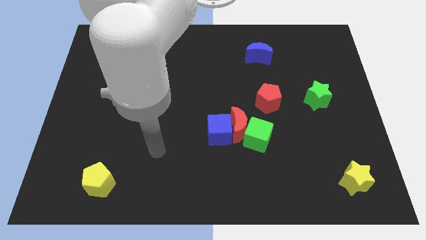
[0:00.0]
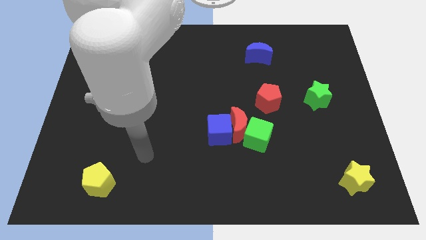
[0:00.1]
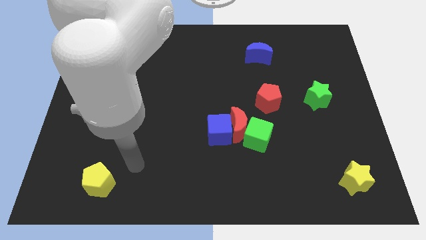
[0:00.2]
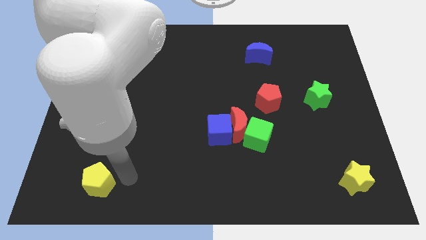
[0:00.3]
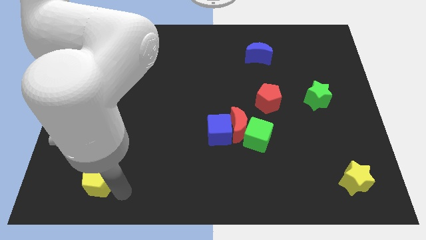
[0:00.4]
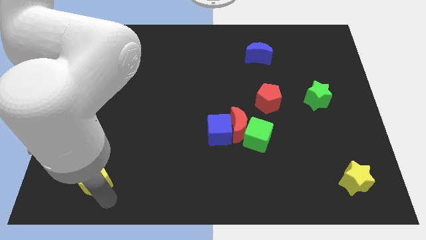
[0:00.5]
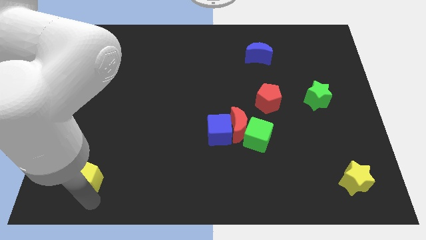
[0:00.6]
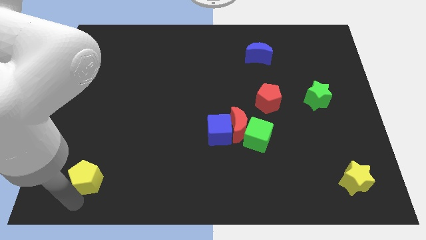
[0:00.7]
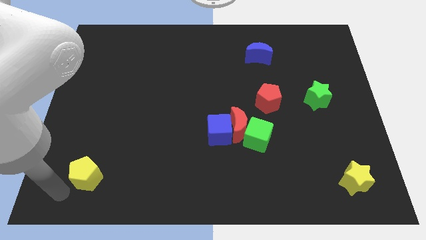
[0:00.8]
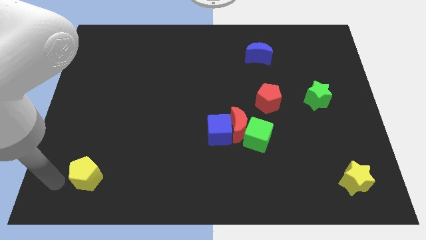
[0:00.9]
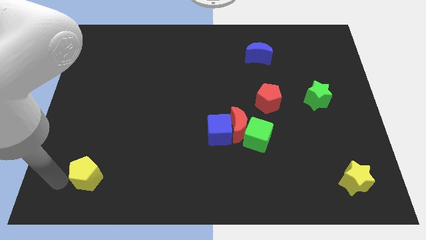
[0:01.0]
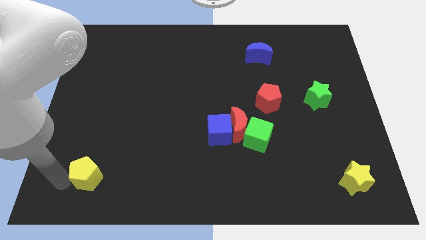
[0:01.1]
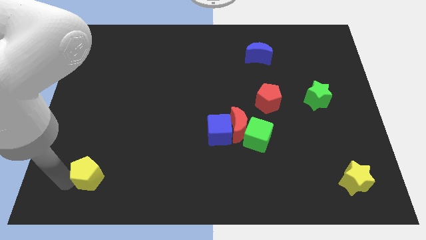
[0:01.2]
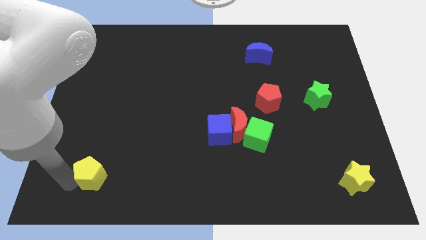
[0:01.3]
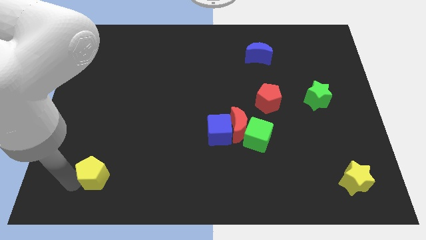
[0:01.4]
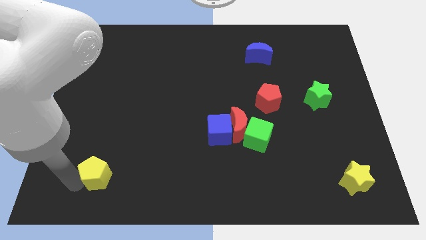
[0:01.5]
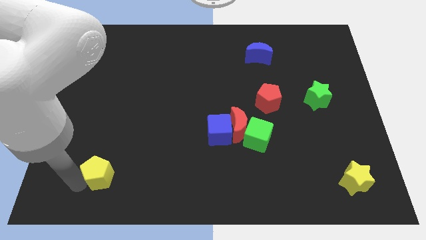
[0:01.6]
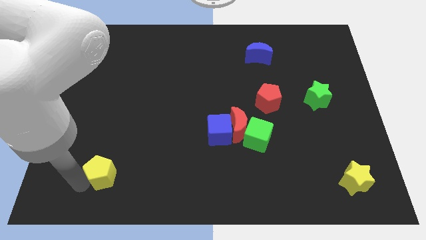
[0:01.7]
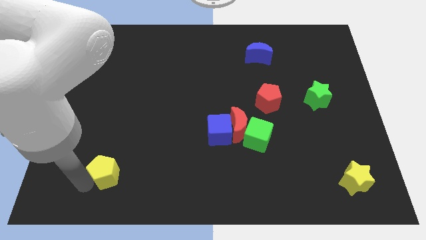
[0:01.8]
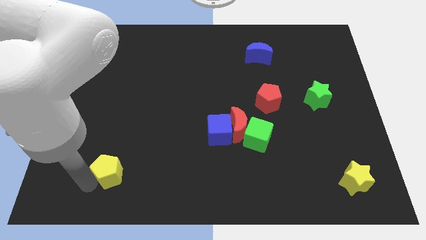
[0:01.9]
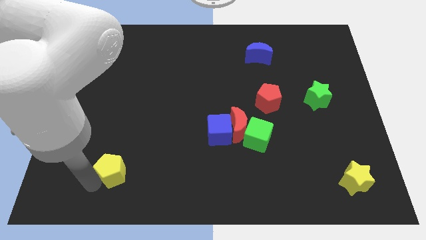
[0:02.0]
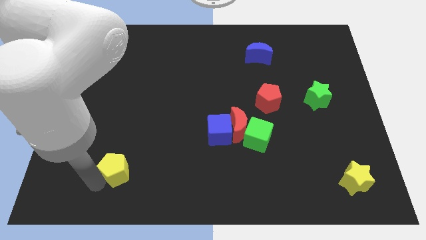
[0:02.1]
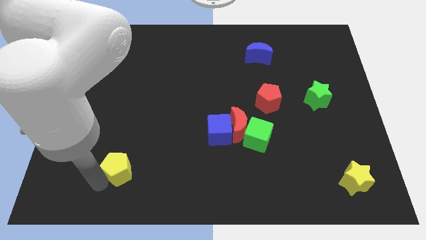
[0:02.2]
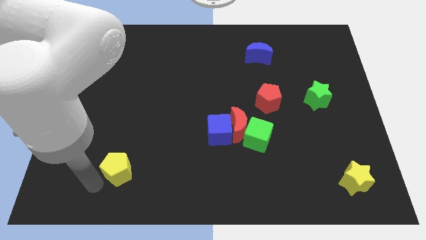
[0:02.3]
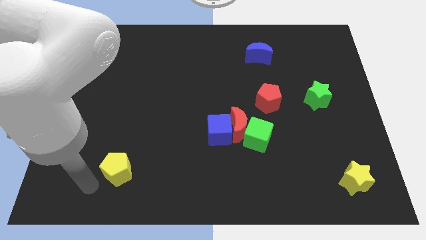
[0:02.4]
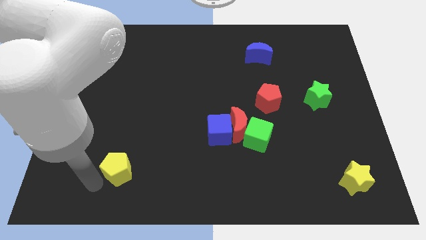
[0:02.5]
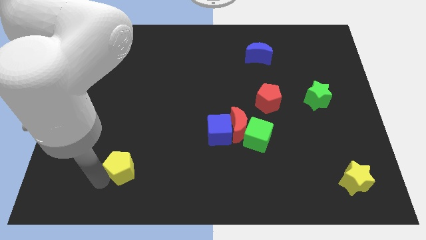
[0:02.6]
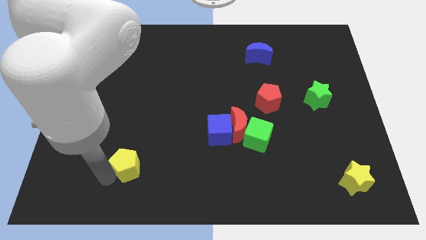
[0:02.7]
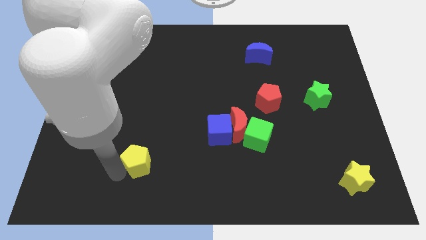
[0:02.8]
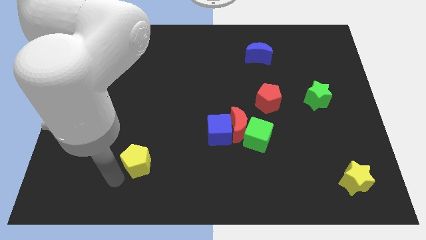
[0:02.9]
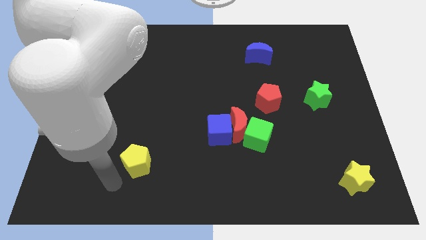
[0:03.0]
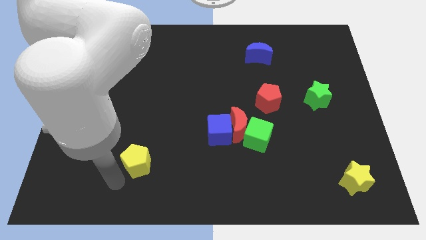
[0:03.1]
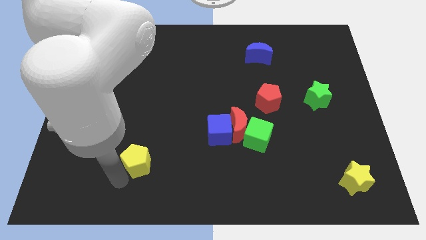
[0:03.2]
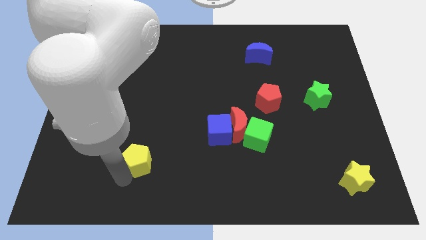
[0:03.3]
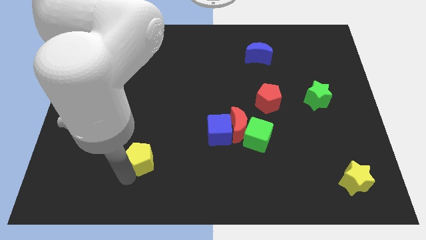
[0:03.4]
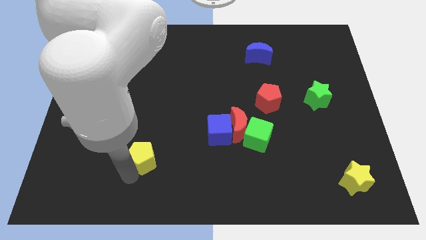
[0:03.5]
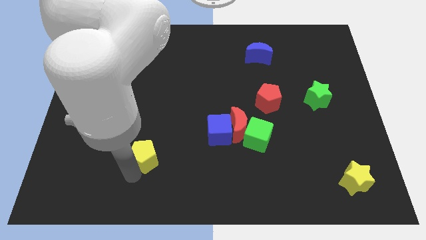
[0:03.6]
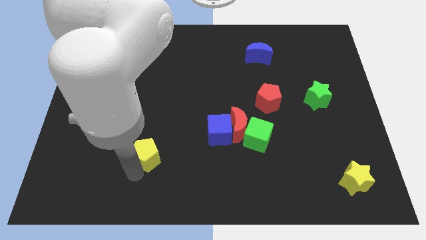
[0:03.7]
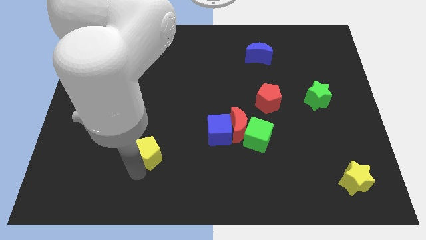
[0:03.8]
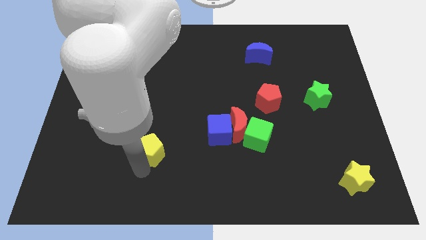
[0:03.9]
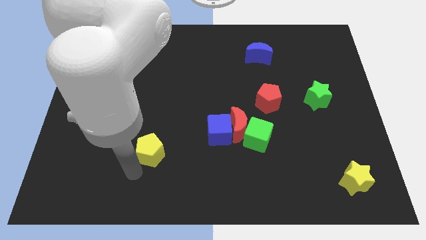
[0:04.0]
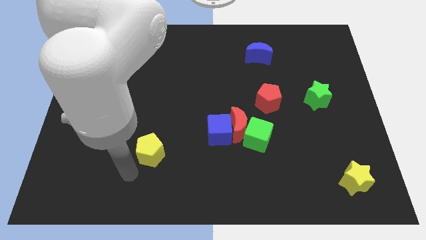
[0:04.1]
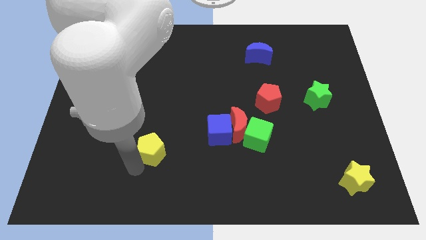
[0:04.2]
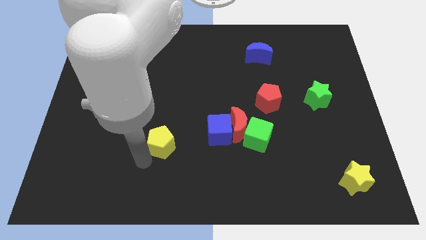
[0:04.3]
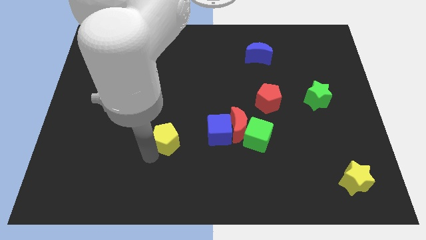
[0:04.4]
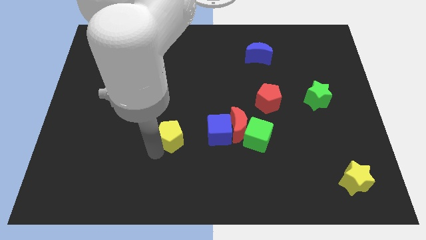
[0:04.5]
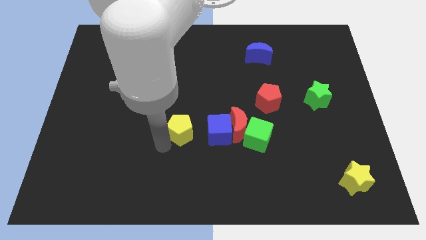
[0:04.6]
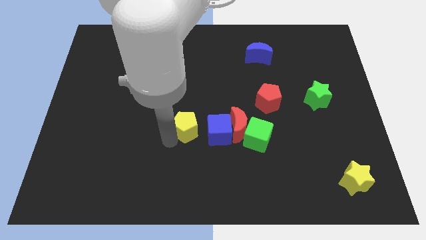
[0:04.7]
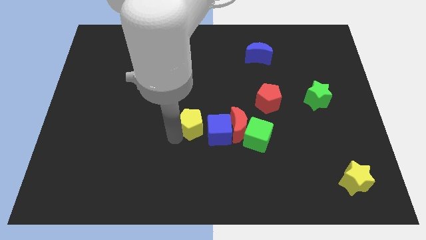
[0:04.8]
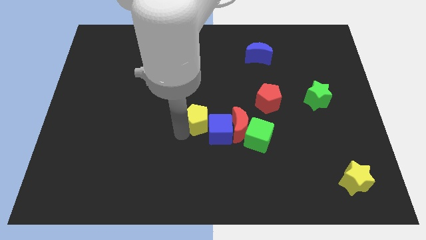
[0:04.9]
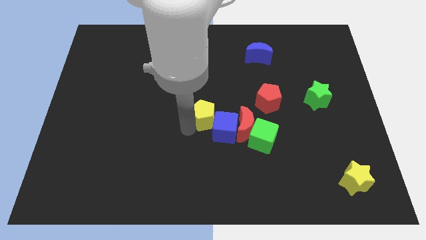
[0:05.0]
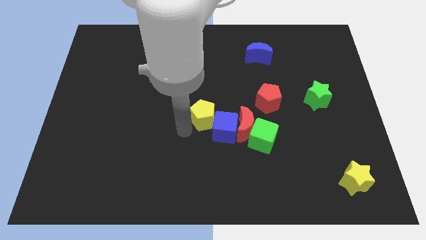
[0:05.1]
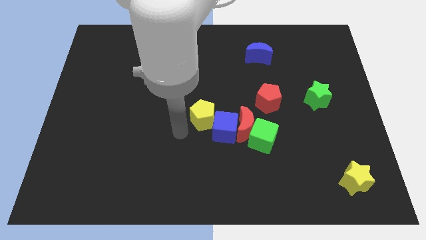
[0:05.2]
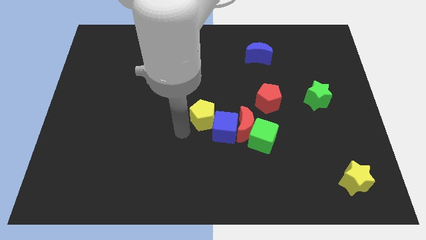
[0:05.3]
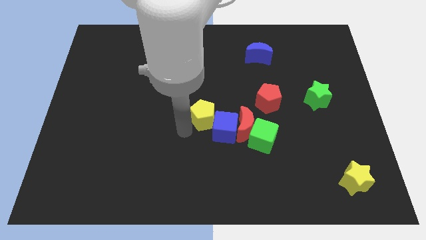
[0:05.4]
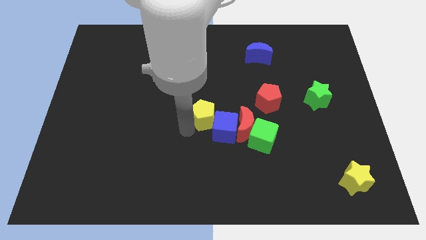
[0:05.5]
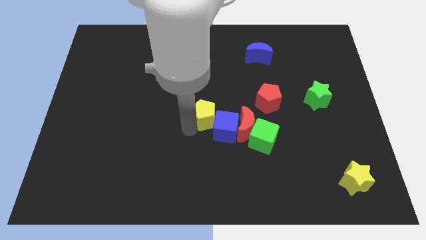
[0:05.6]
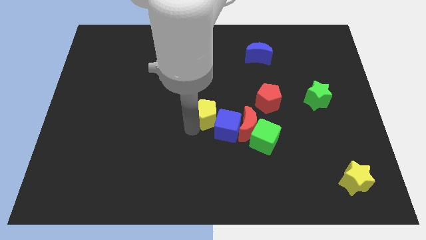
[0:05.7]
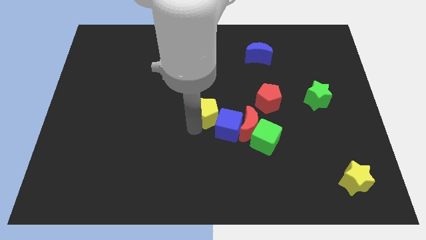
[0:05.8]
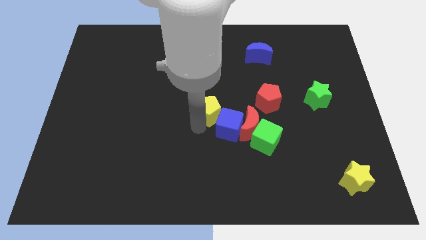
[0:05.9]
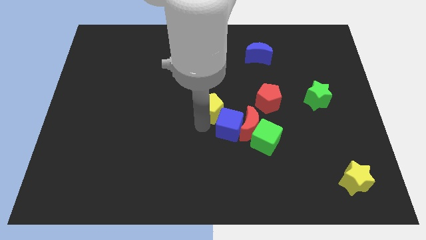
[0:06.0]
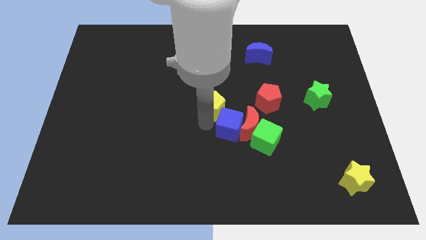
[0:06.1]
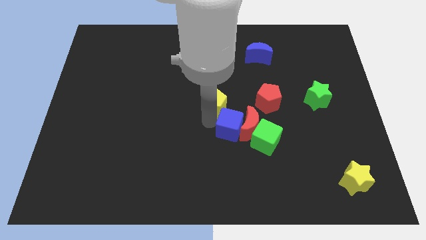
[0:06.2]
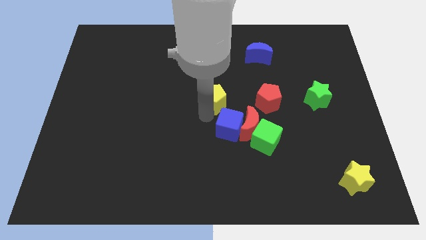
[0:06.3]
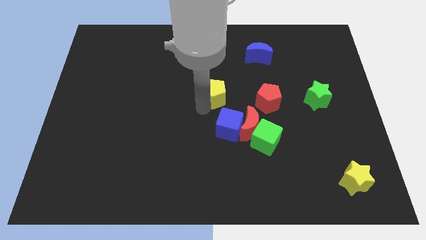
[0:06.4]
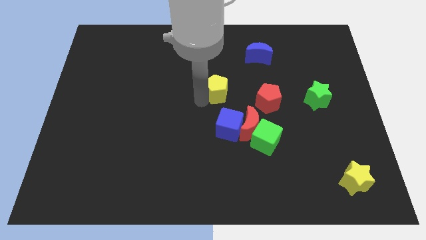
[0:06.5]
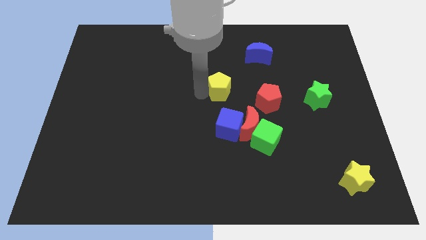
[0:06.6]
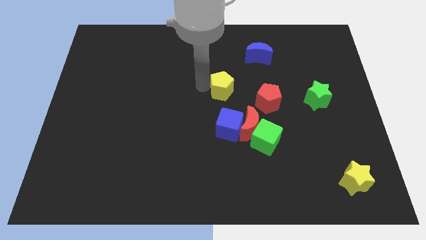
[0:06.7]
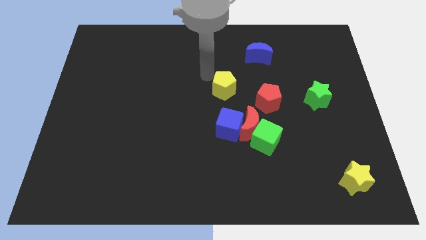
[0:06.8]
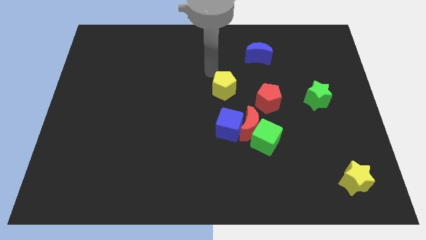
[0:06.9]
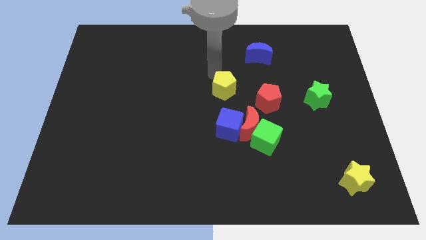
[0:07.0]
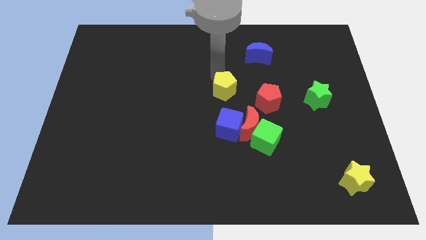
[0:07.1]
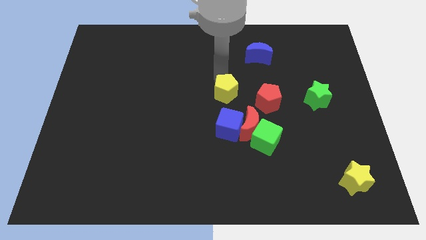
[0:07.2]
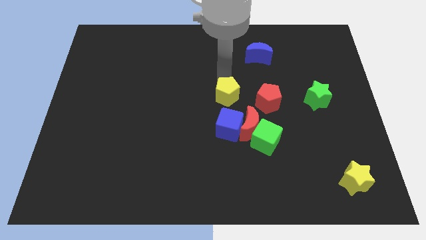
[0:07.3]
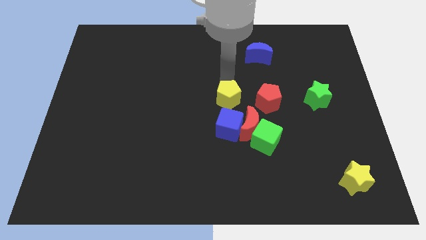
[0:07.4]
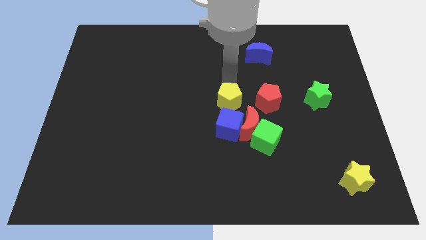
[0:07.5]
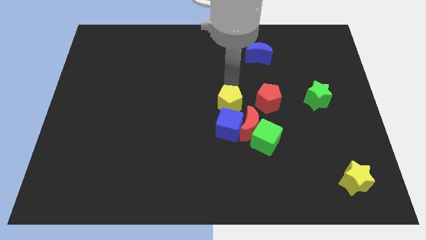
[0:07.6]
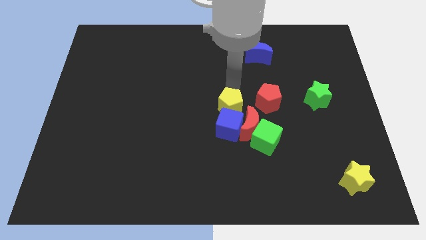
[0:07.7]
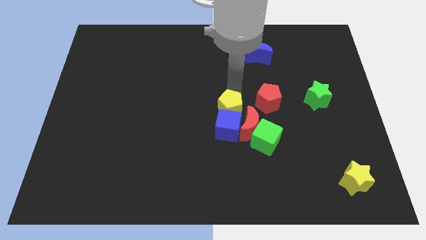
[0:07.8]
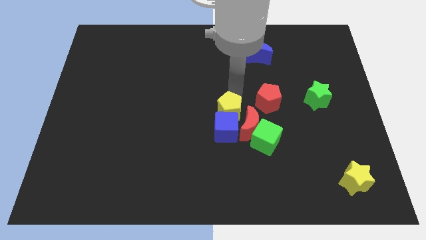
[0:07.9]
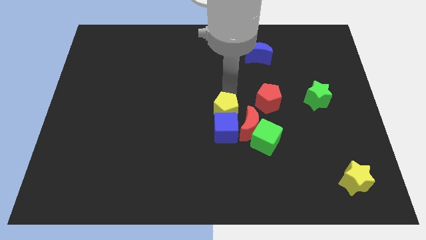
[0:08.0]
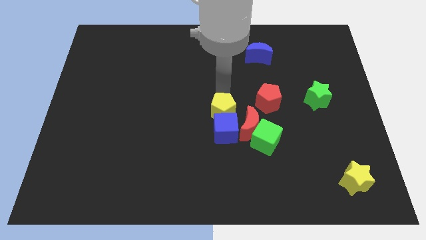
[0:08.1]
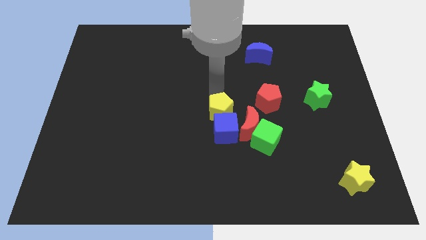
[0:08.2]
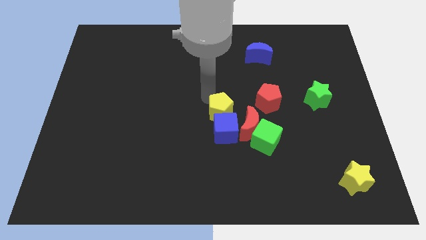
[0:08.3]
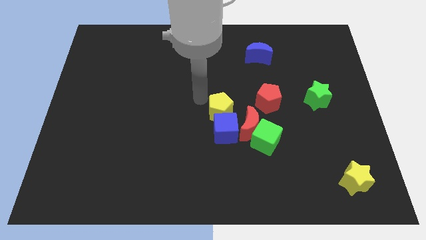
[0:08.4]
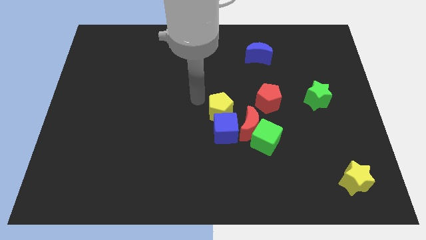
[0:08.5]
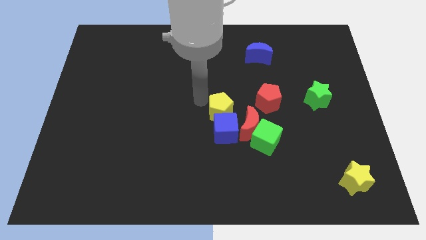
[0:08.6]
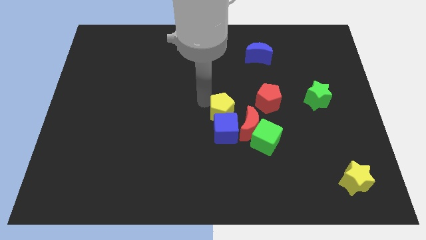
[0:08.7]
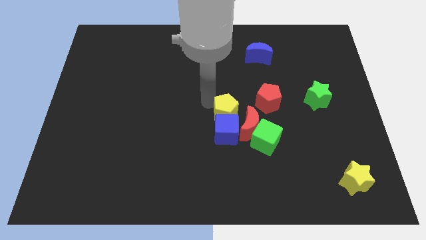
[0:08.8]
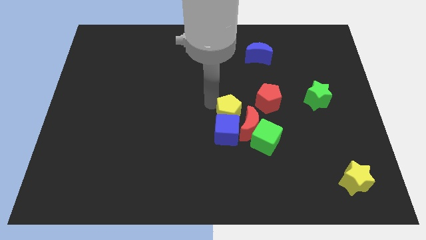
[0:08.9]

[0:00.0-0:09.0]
put the yellow pentagon close to the red moon
